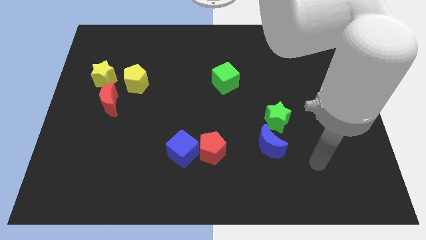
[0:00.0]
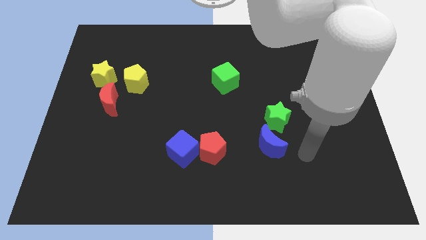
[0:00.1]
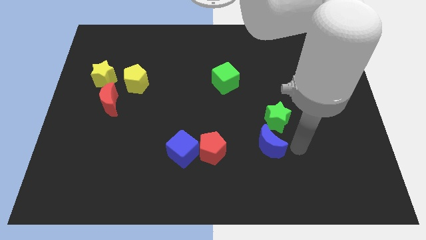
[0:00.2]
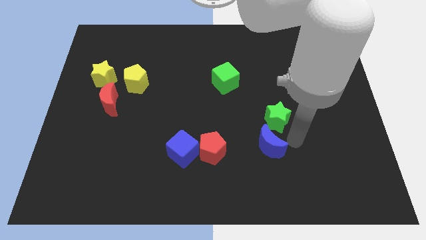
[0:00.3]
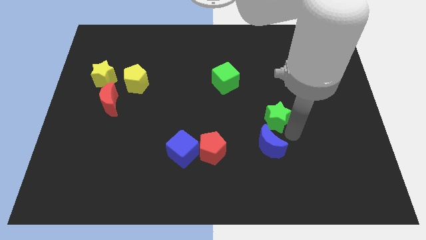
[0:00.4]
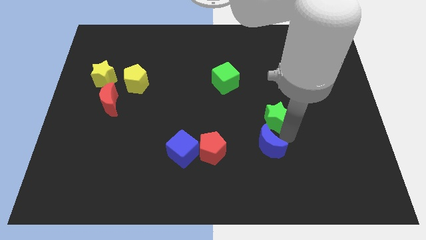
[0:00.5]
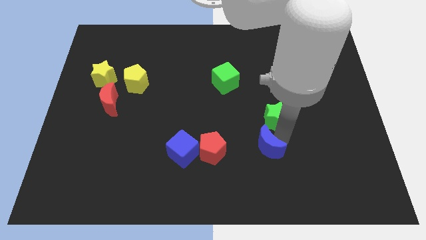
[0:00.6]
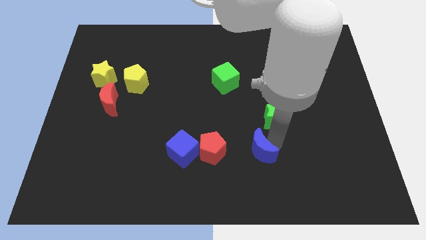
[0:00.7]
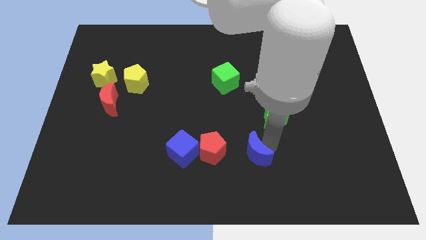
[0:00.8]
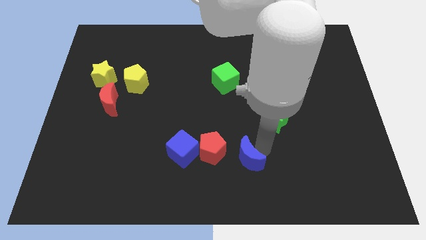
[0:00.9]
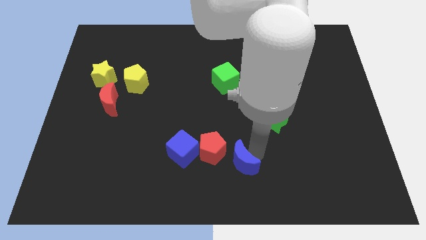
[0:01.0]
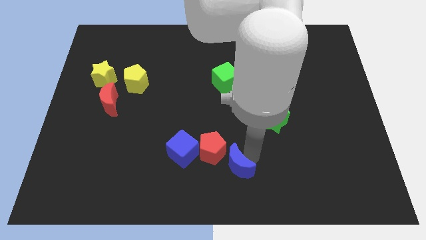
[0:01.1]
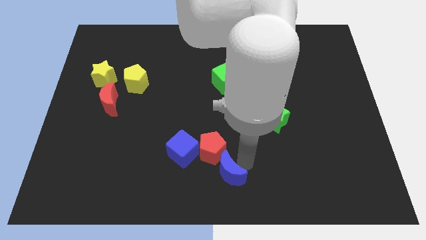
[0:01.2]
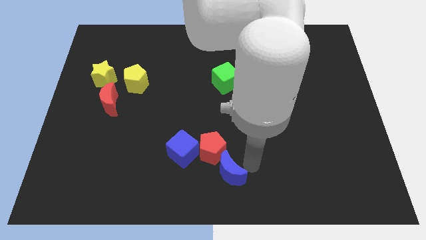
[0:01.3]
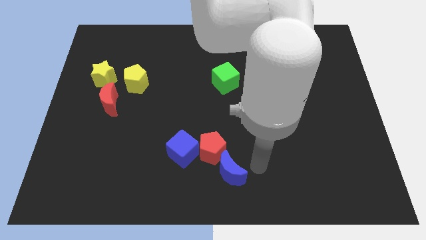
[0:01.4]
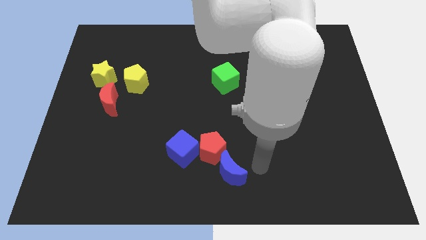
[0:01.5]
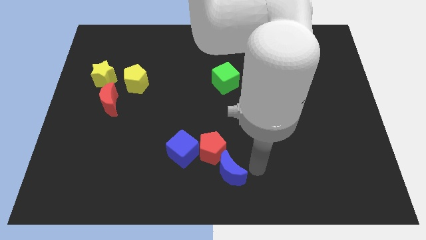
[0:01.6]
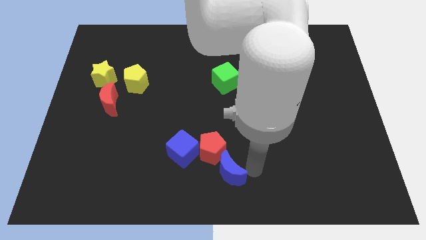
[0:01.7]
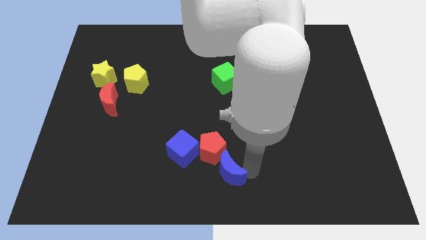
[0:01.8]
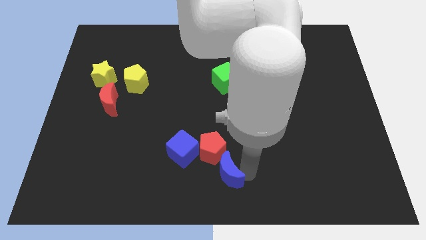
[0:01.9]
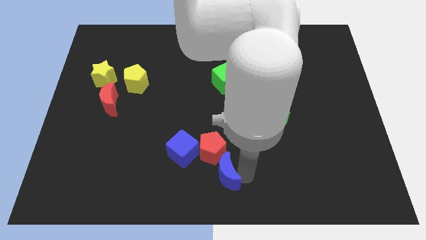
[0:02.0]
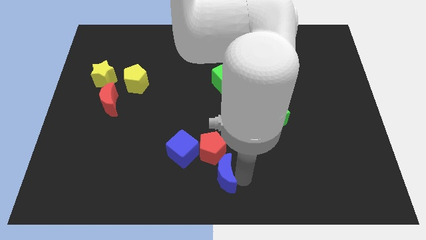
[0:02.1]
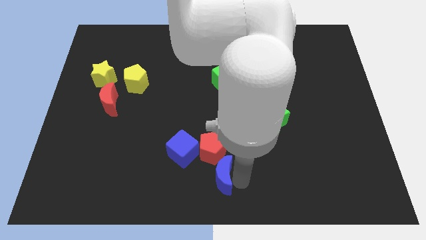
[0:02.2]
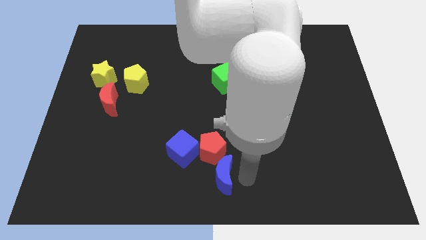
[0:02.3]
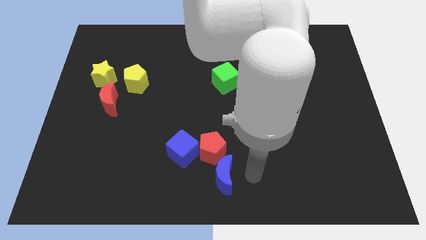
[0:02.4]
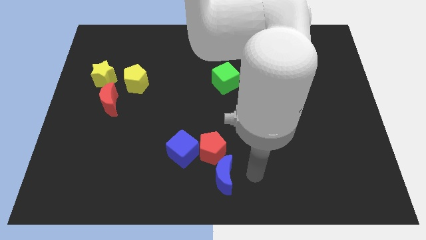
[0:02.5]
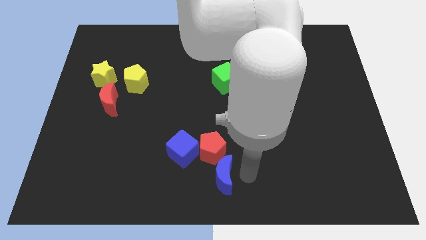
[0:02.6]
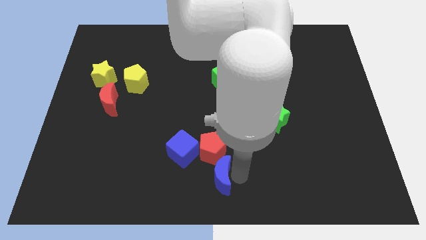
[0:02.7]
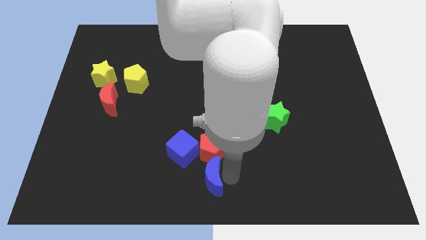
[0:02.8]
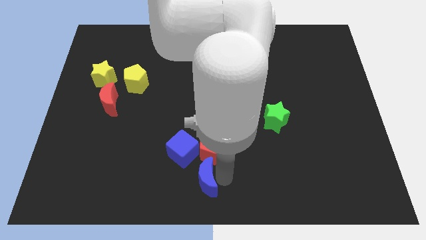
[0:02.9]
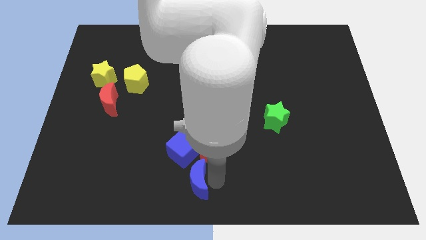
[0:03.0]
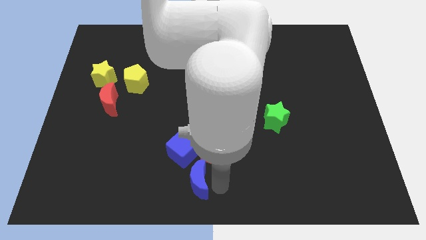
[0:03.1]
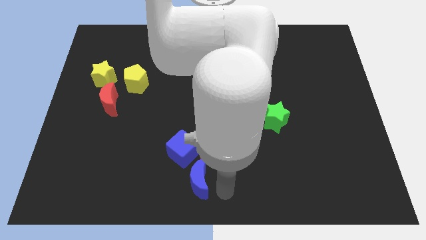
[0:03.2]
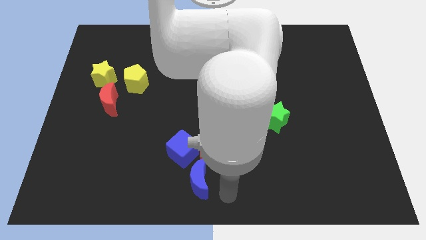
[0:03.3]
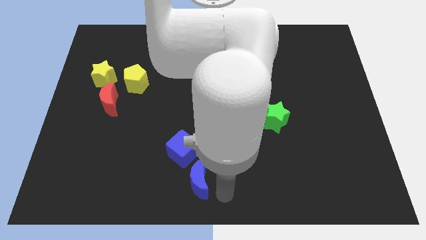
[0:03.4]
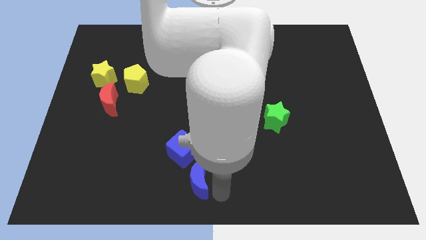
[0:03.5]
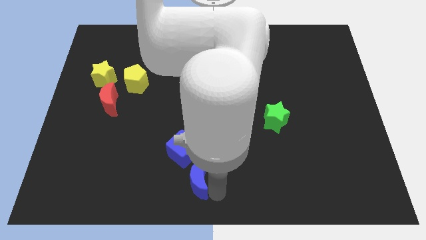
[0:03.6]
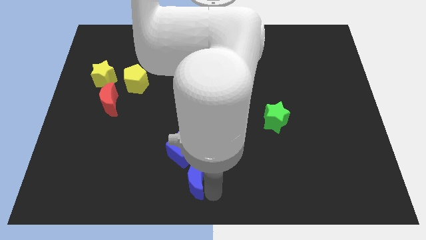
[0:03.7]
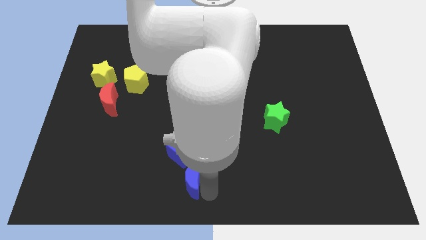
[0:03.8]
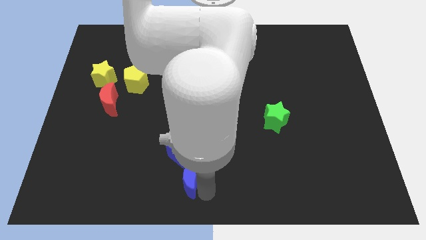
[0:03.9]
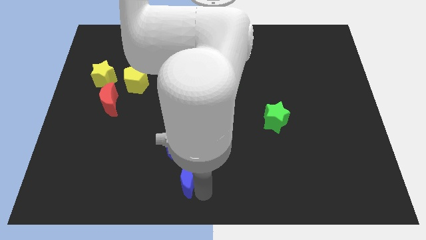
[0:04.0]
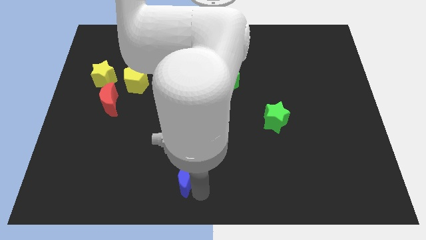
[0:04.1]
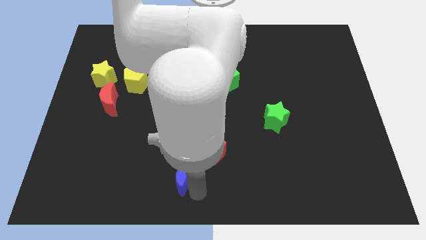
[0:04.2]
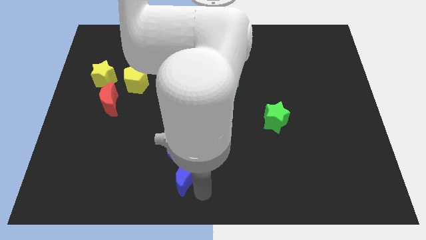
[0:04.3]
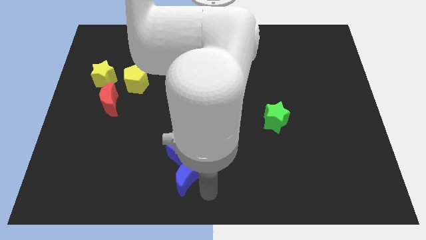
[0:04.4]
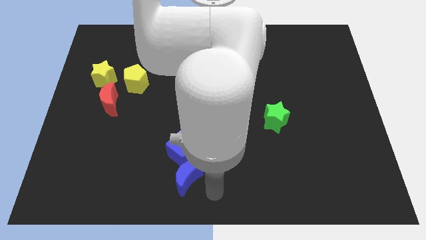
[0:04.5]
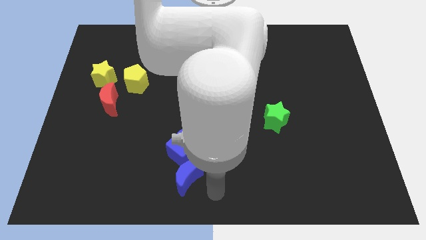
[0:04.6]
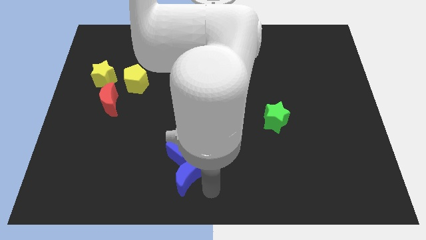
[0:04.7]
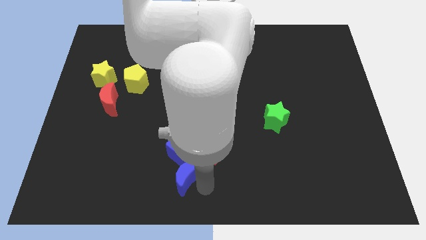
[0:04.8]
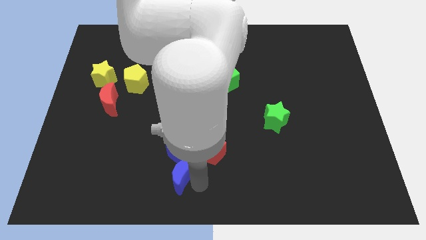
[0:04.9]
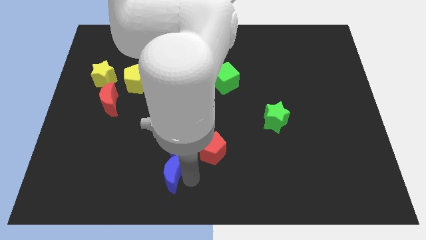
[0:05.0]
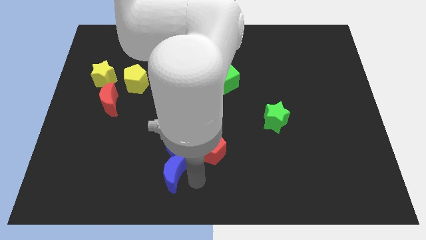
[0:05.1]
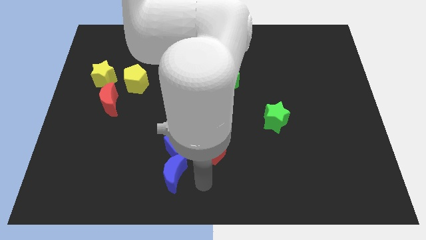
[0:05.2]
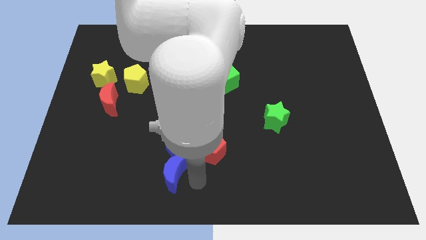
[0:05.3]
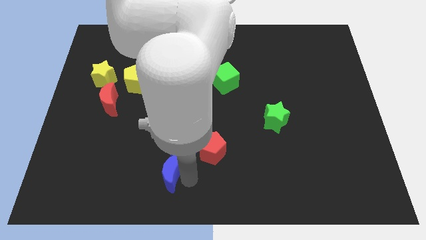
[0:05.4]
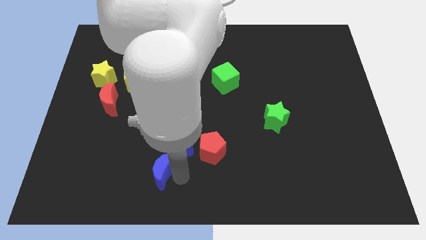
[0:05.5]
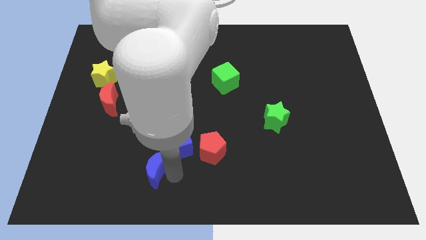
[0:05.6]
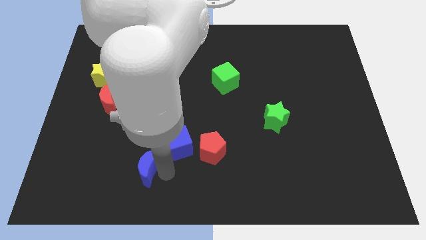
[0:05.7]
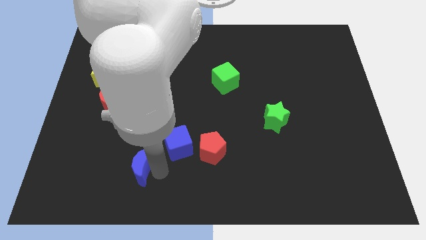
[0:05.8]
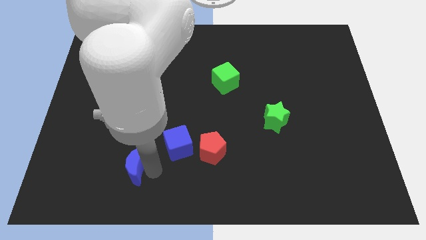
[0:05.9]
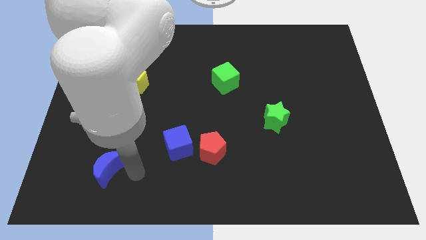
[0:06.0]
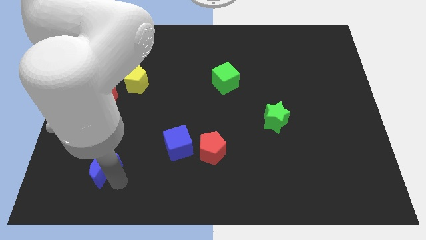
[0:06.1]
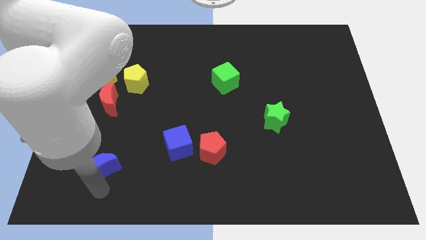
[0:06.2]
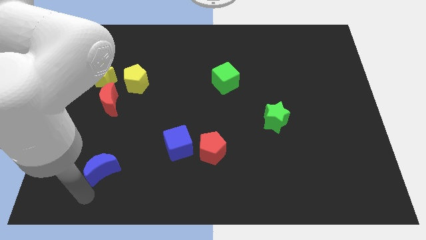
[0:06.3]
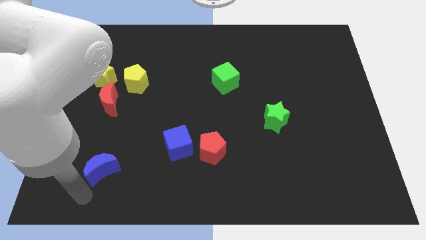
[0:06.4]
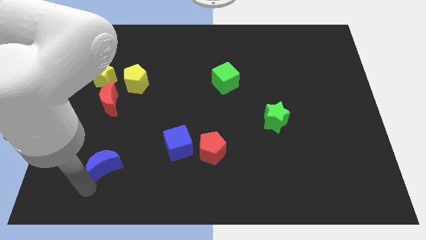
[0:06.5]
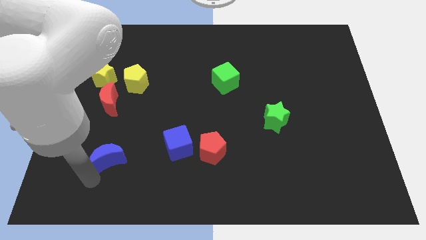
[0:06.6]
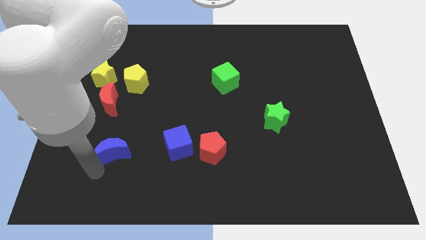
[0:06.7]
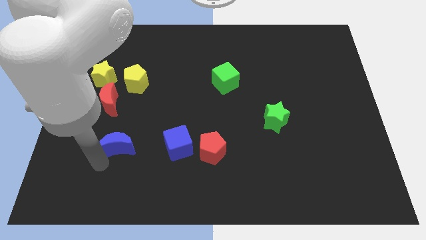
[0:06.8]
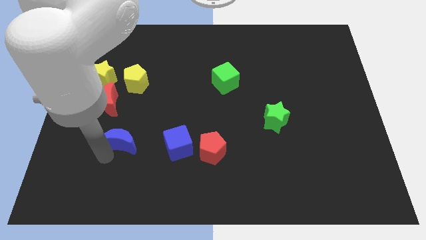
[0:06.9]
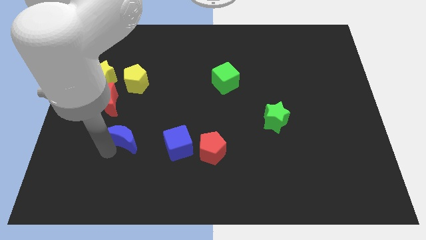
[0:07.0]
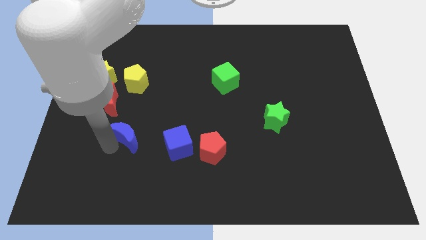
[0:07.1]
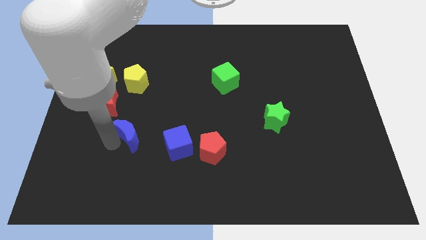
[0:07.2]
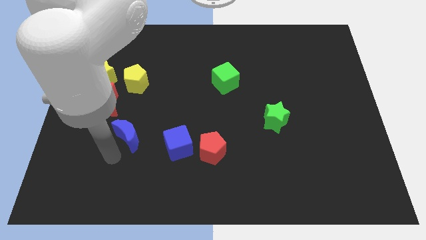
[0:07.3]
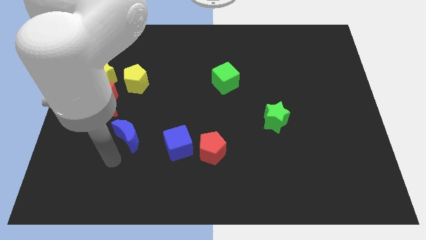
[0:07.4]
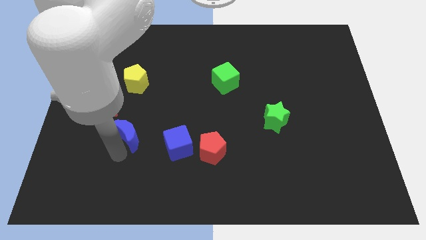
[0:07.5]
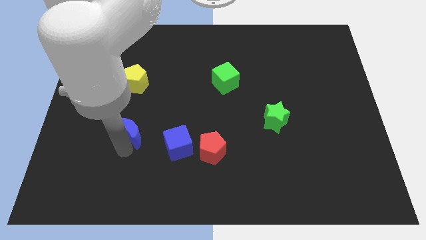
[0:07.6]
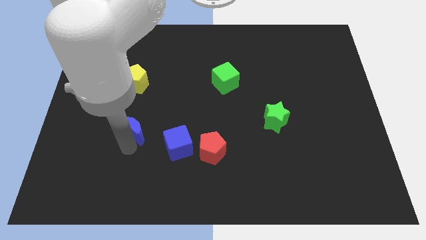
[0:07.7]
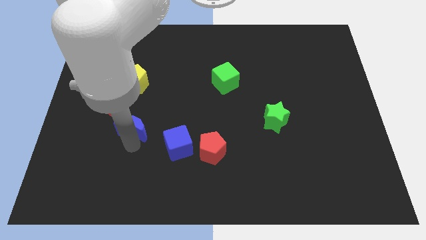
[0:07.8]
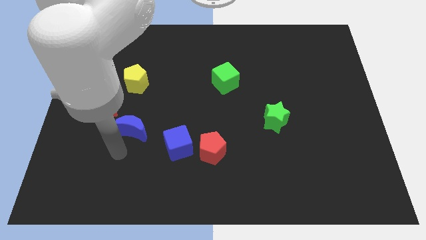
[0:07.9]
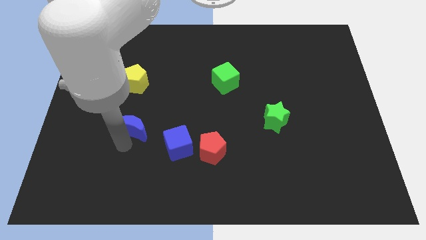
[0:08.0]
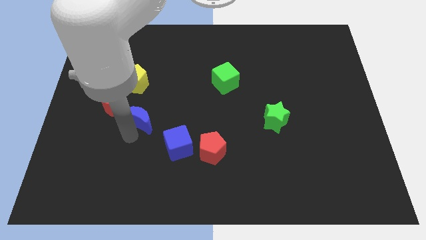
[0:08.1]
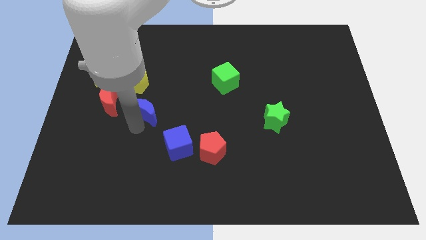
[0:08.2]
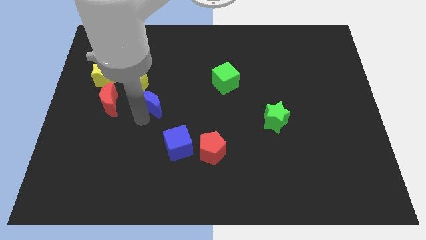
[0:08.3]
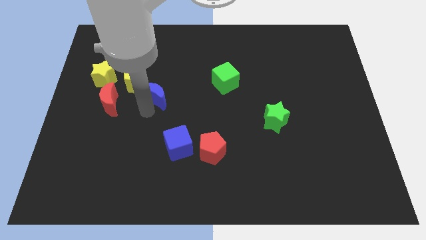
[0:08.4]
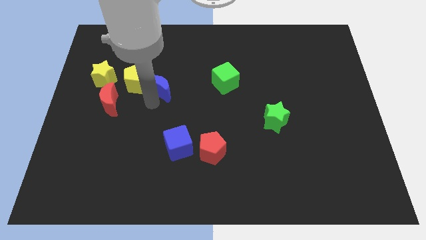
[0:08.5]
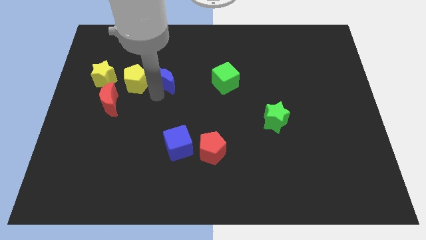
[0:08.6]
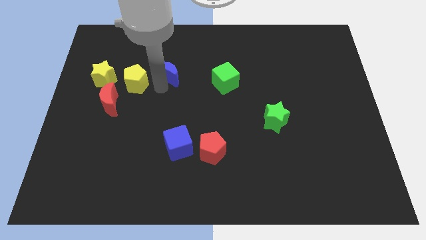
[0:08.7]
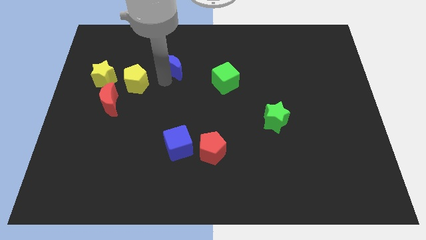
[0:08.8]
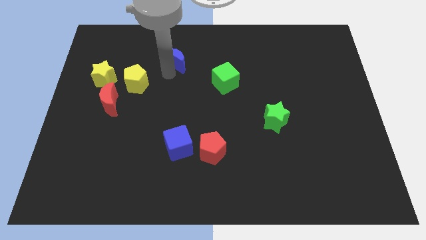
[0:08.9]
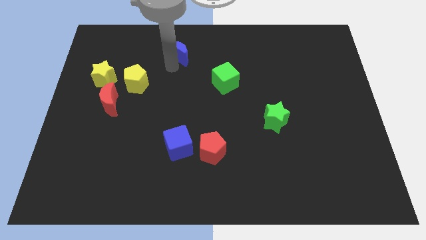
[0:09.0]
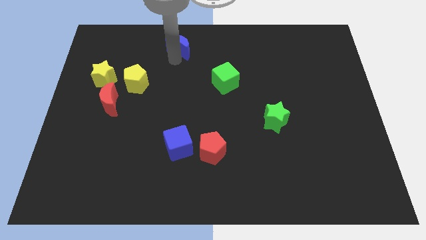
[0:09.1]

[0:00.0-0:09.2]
push the blue moon to the top side
